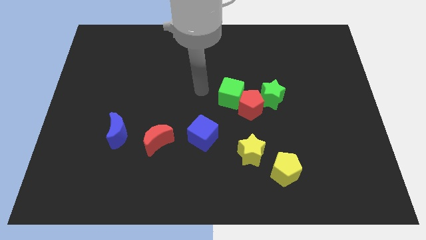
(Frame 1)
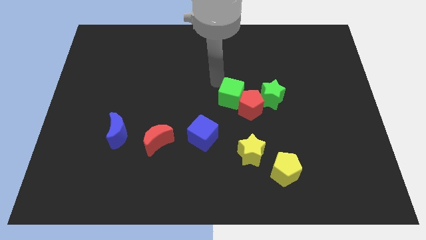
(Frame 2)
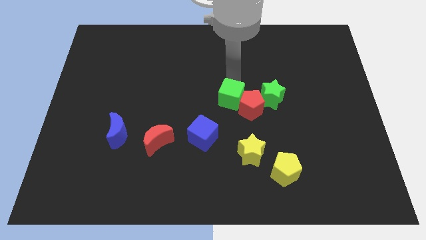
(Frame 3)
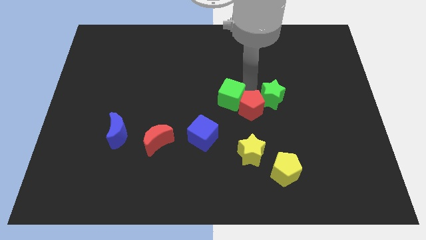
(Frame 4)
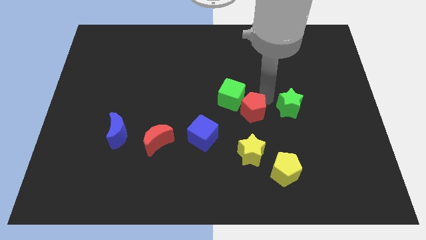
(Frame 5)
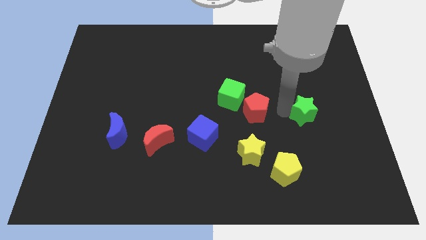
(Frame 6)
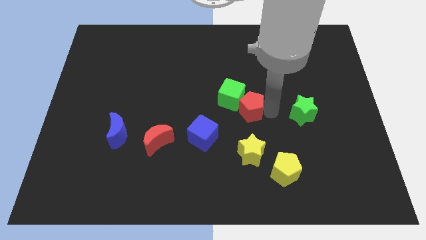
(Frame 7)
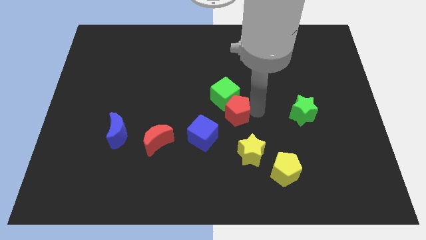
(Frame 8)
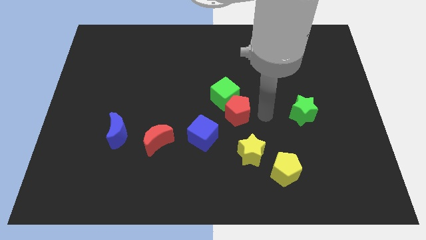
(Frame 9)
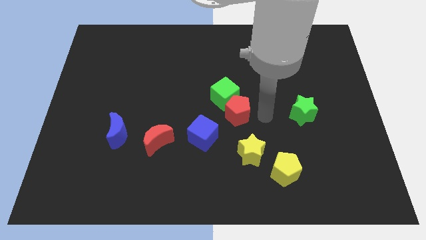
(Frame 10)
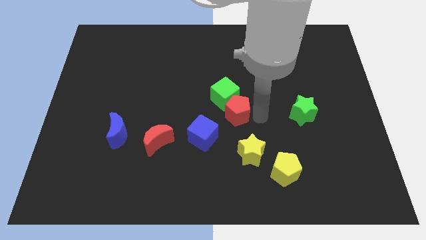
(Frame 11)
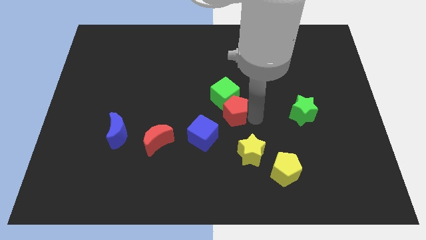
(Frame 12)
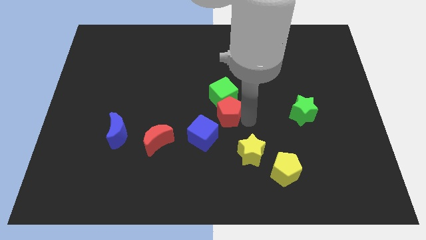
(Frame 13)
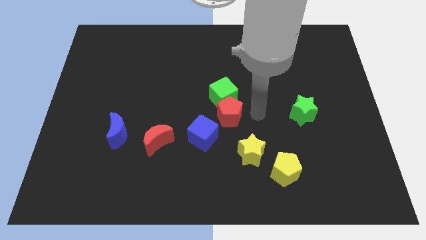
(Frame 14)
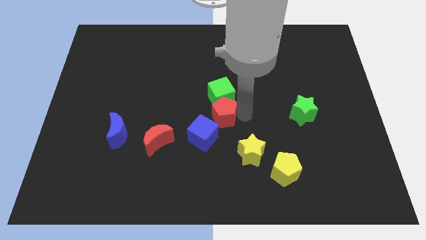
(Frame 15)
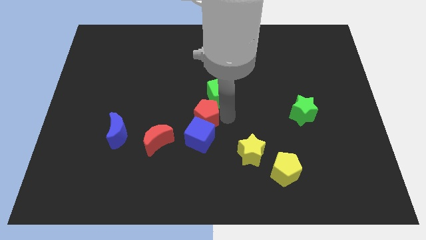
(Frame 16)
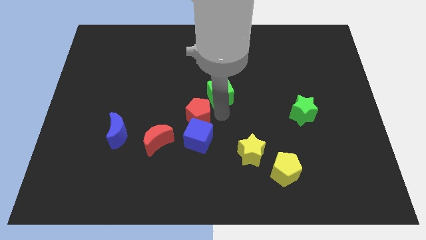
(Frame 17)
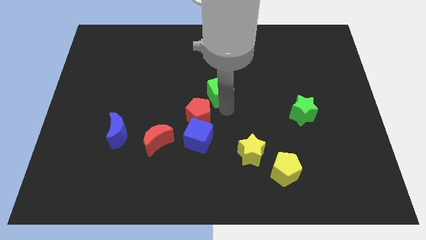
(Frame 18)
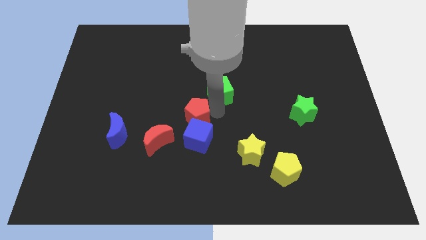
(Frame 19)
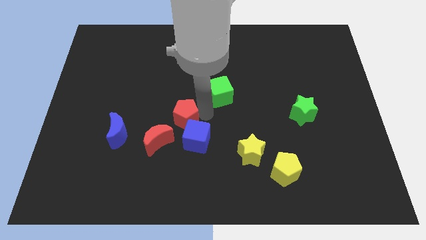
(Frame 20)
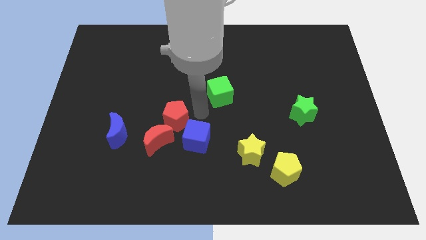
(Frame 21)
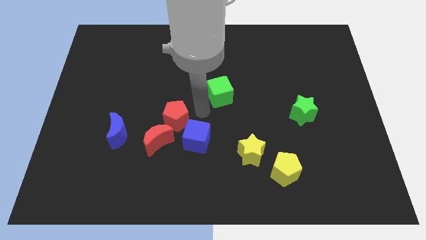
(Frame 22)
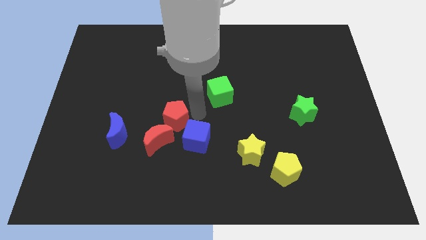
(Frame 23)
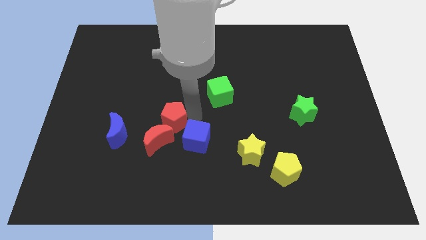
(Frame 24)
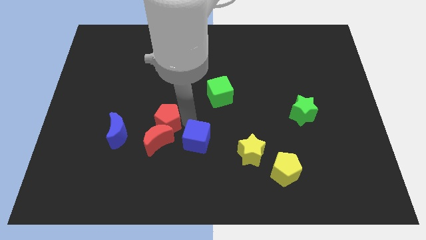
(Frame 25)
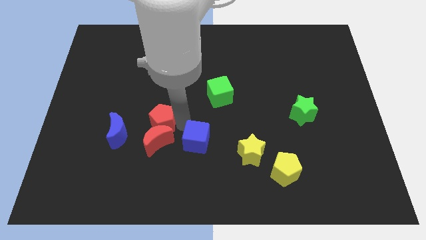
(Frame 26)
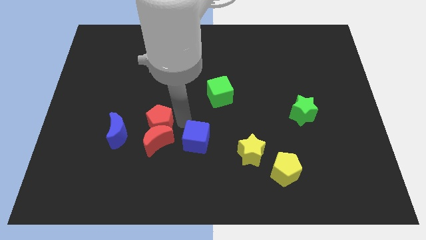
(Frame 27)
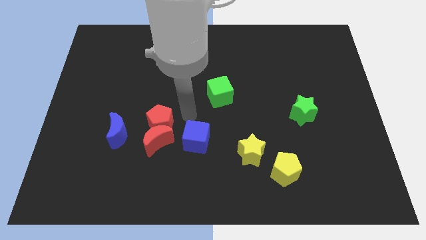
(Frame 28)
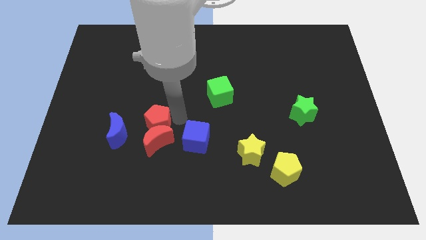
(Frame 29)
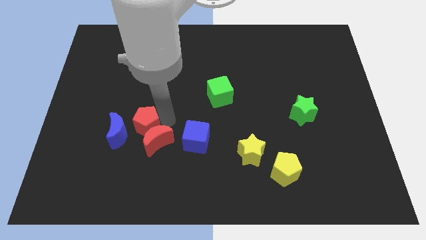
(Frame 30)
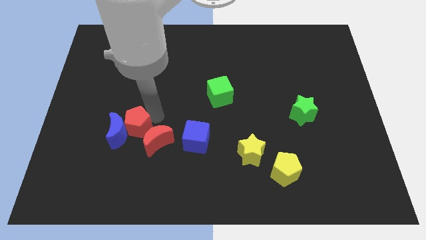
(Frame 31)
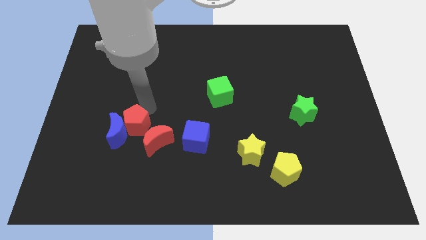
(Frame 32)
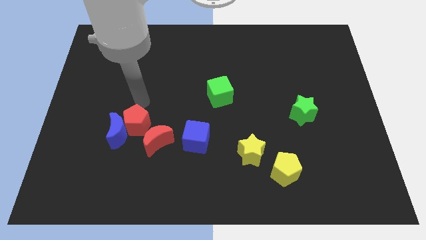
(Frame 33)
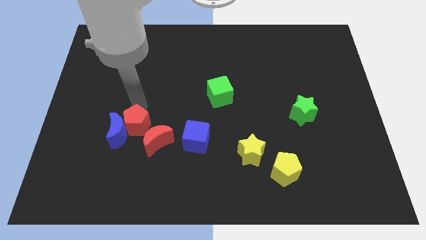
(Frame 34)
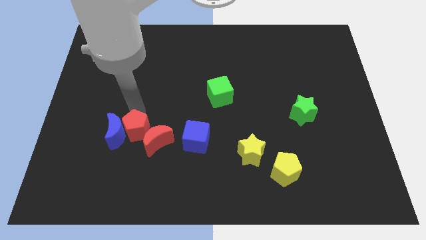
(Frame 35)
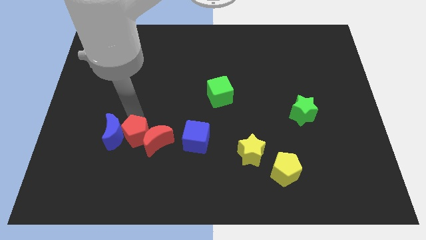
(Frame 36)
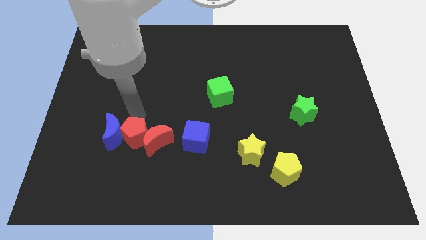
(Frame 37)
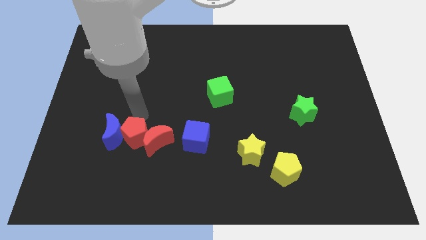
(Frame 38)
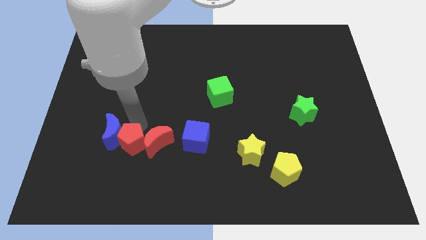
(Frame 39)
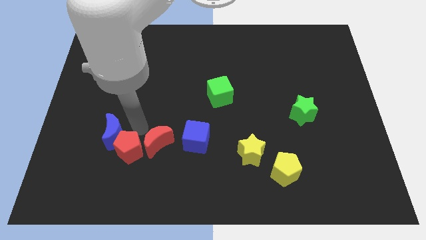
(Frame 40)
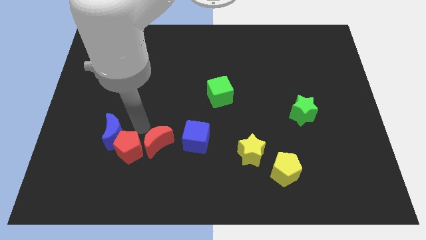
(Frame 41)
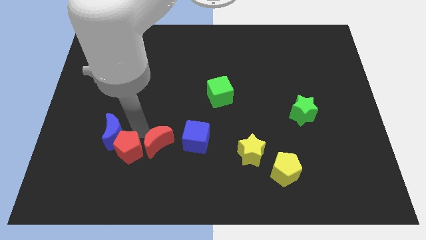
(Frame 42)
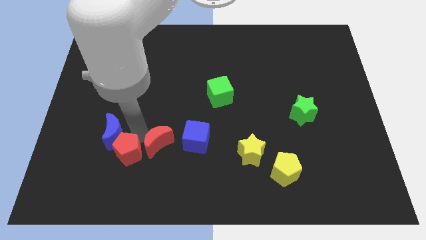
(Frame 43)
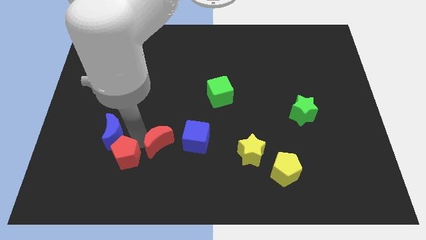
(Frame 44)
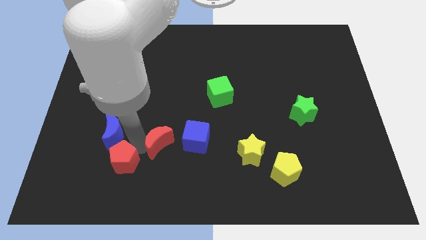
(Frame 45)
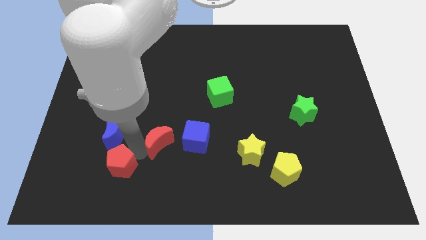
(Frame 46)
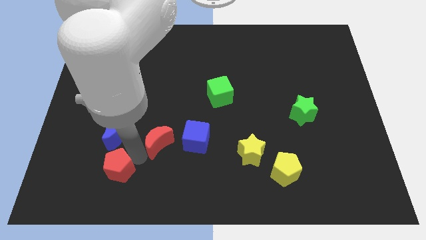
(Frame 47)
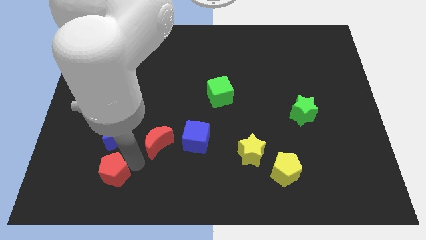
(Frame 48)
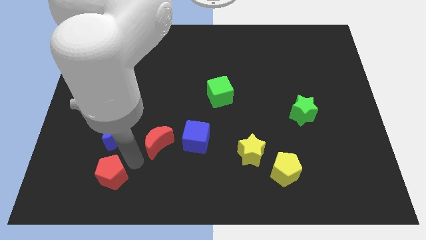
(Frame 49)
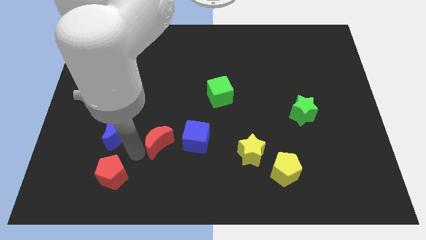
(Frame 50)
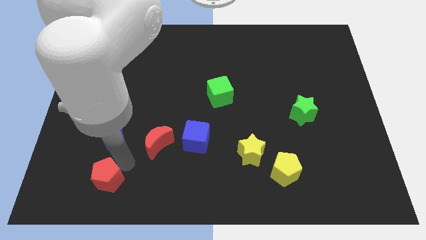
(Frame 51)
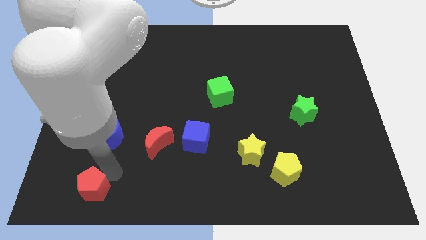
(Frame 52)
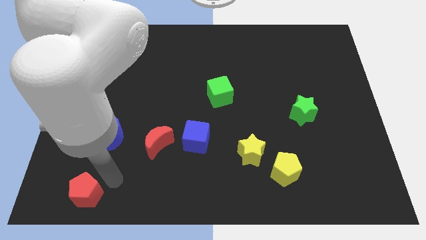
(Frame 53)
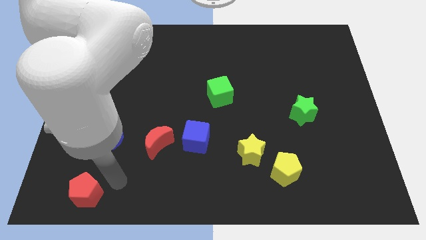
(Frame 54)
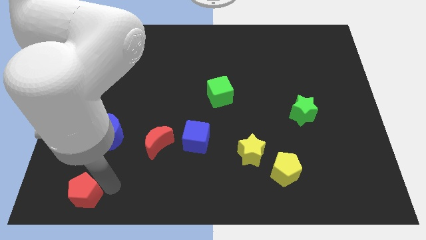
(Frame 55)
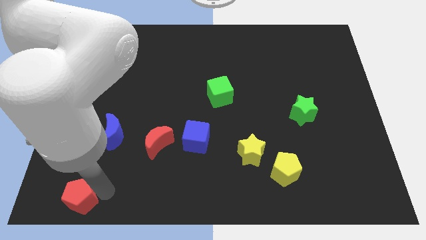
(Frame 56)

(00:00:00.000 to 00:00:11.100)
slide the red pentagon to the bottom left of the board
